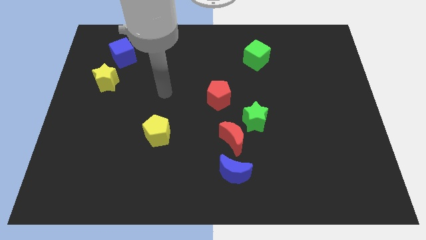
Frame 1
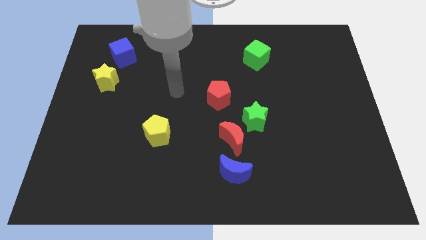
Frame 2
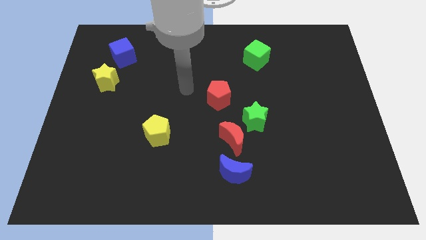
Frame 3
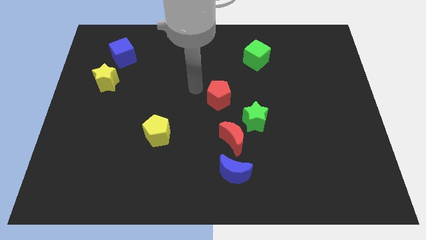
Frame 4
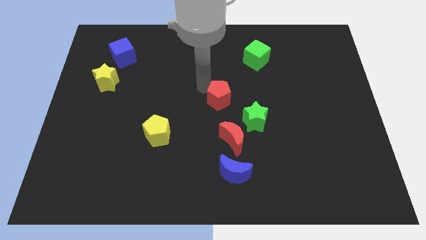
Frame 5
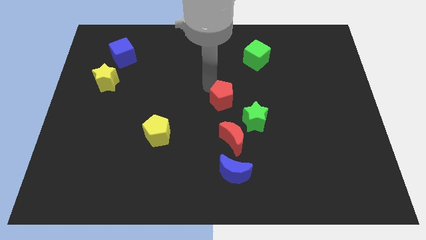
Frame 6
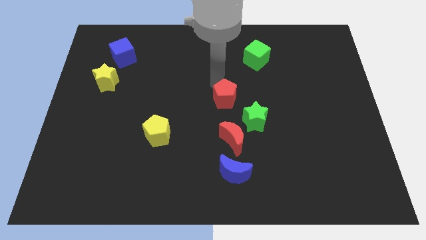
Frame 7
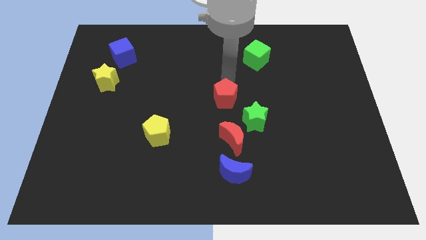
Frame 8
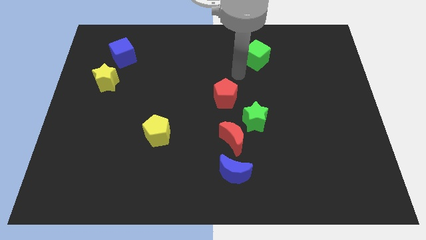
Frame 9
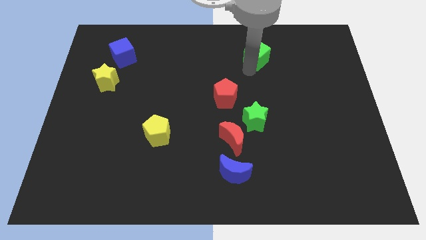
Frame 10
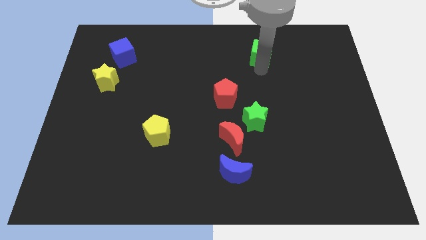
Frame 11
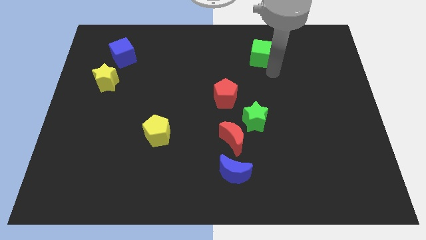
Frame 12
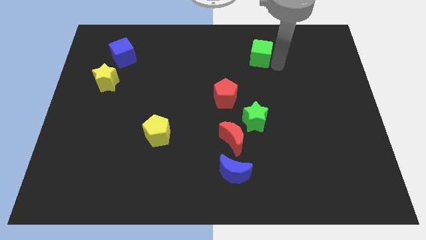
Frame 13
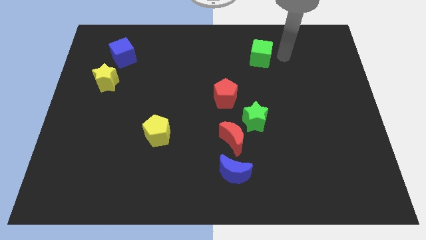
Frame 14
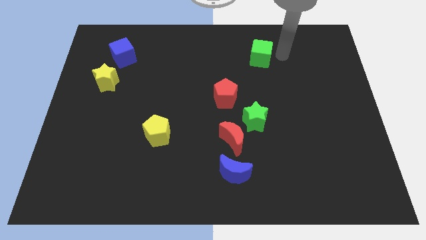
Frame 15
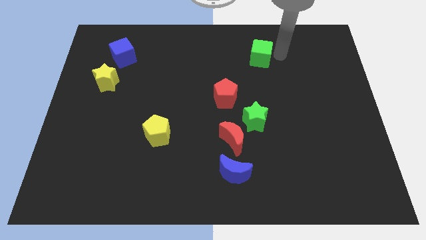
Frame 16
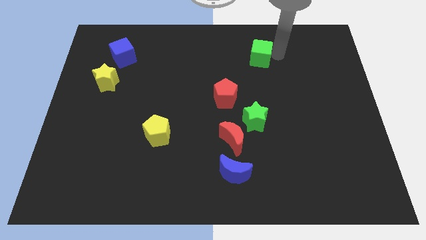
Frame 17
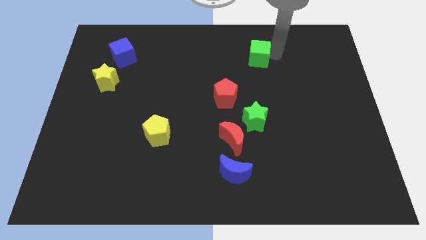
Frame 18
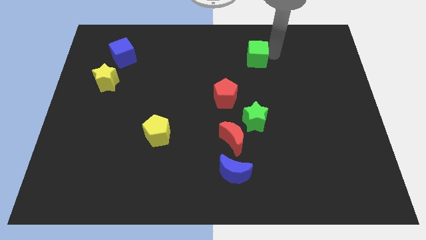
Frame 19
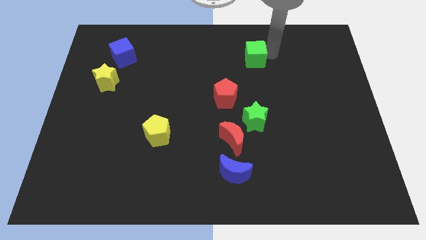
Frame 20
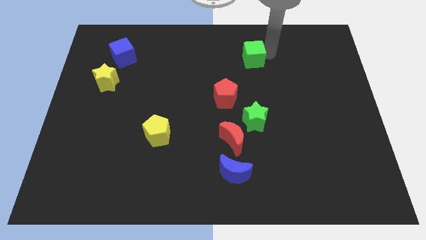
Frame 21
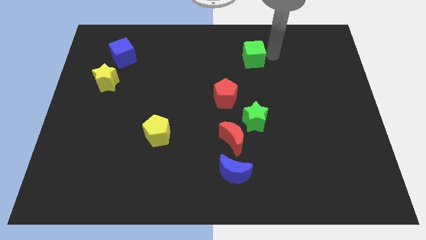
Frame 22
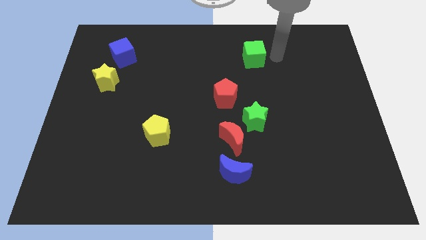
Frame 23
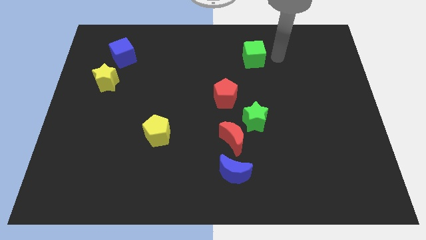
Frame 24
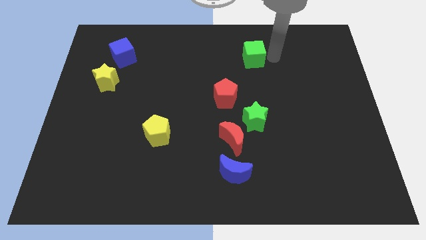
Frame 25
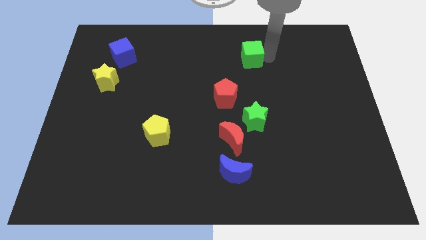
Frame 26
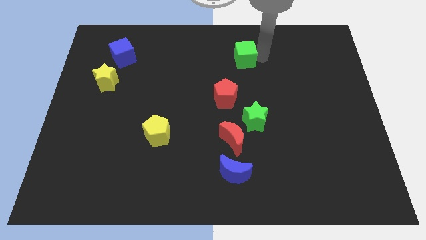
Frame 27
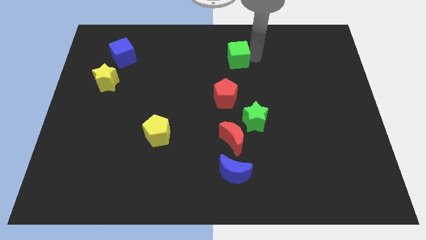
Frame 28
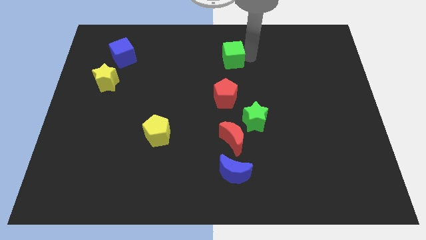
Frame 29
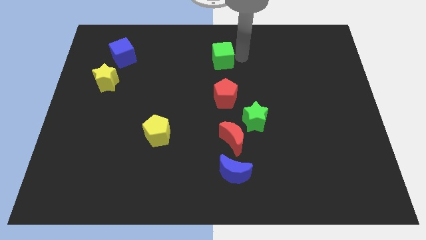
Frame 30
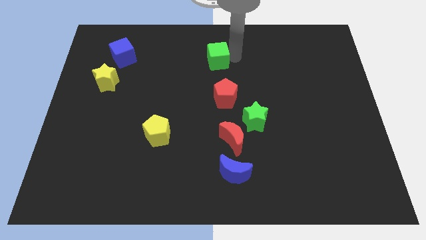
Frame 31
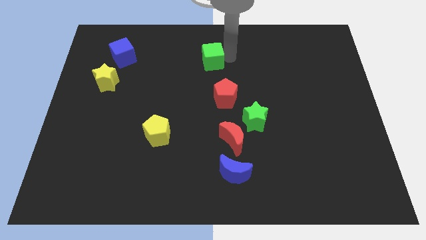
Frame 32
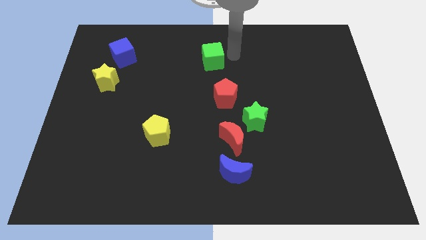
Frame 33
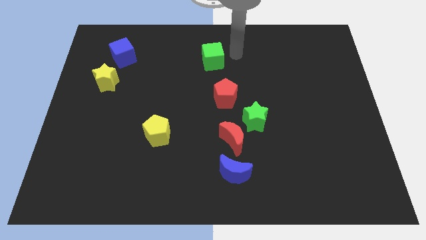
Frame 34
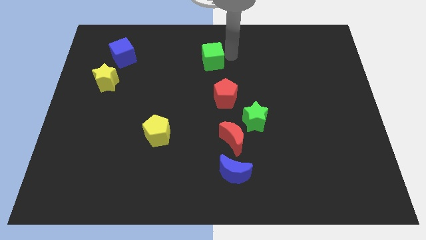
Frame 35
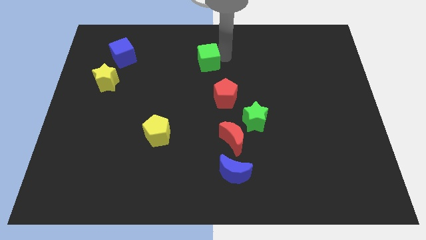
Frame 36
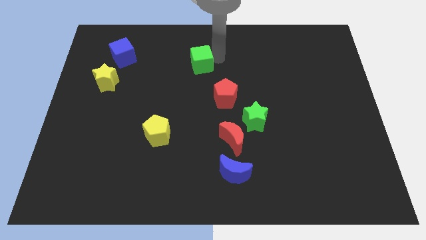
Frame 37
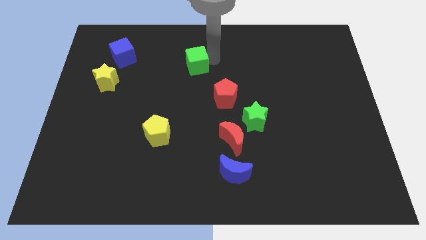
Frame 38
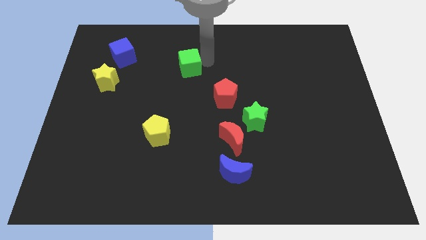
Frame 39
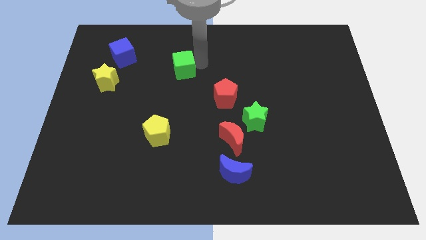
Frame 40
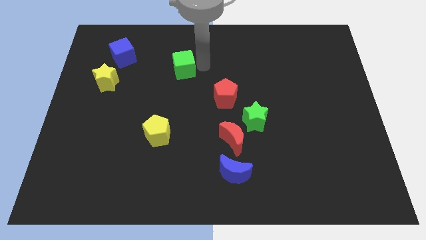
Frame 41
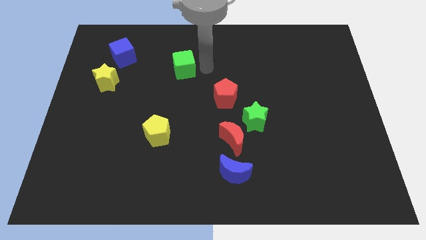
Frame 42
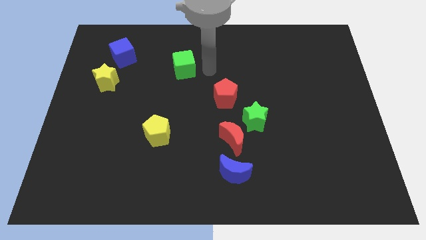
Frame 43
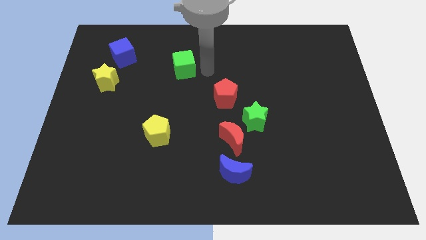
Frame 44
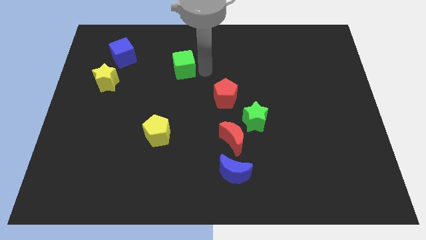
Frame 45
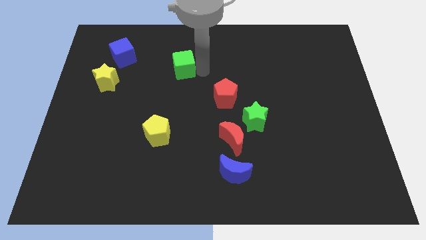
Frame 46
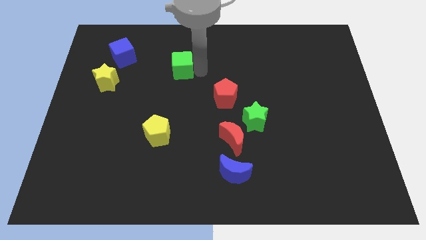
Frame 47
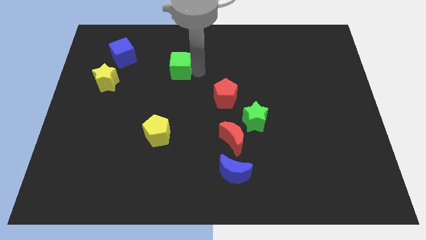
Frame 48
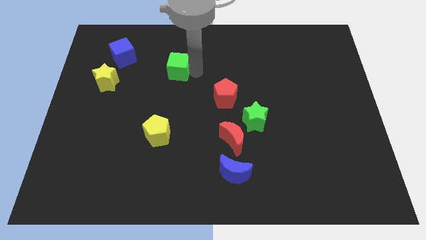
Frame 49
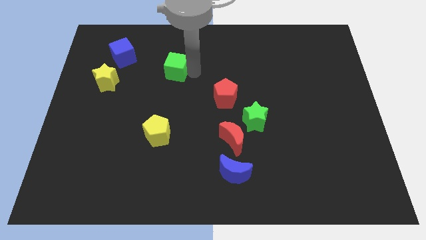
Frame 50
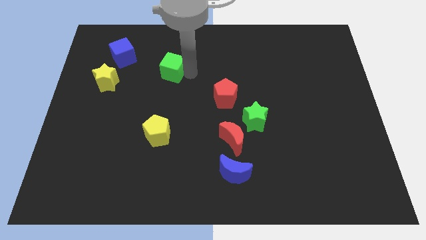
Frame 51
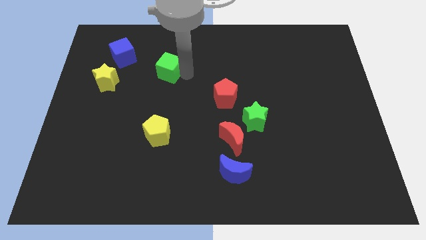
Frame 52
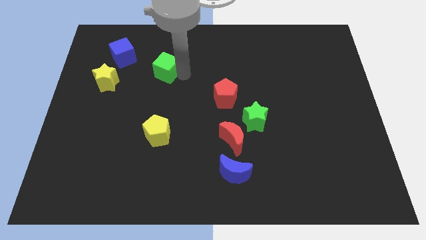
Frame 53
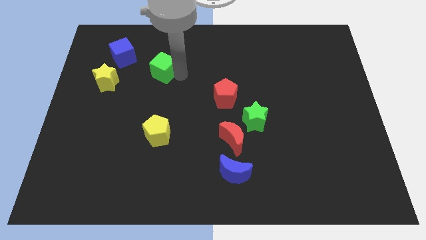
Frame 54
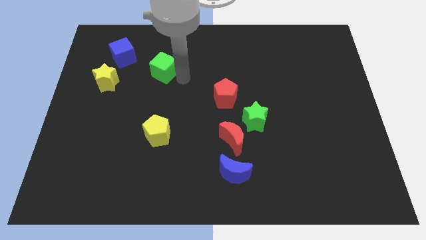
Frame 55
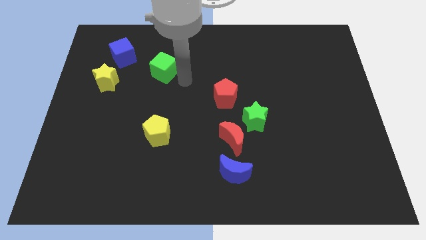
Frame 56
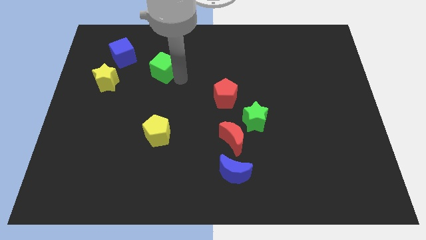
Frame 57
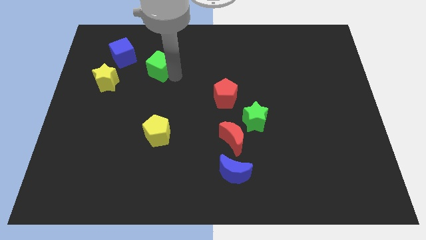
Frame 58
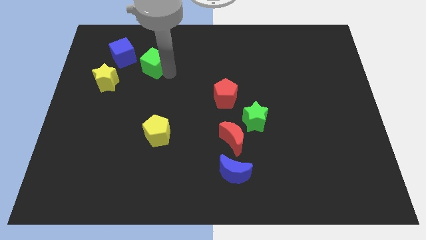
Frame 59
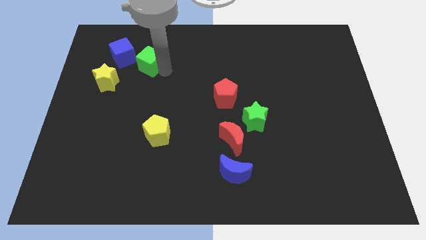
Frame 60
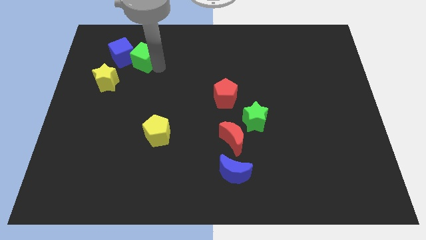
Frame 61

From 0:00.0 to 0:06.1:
put the green cube towards the blue cube
